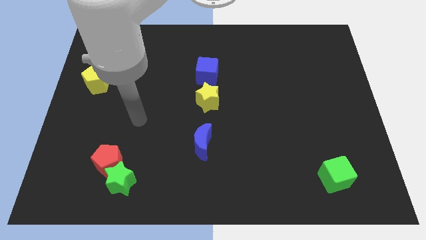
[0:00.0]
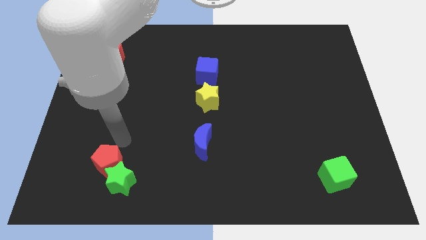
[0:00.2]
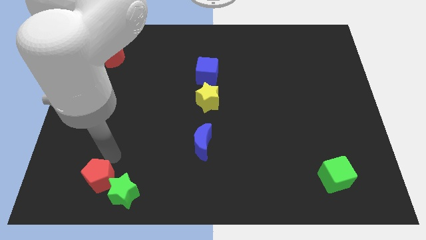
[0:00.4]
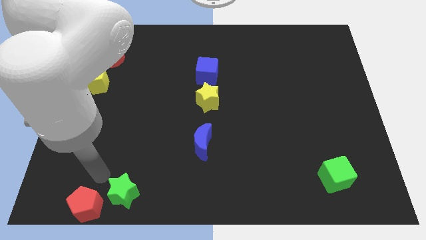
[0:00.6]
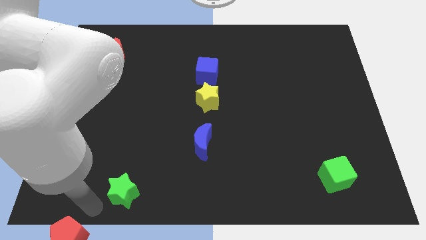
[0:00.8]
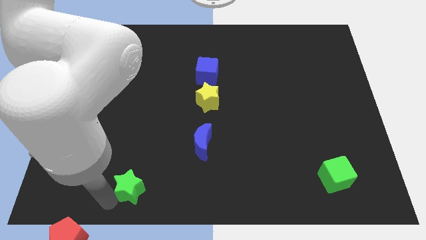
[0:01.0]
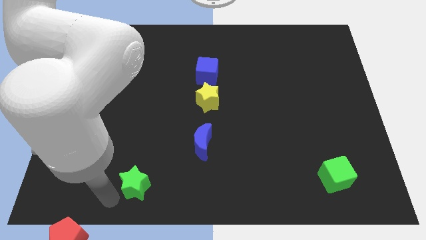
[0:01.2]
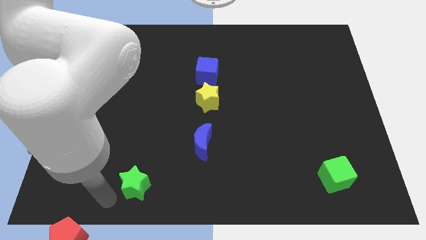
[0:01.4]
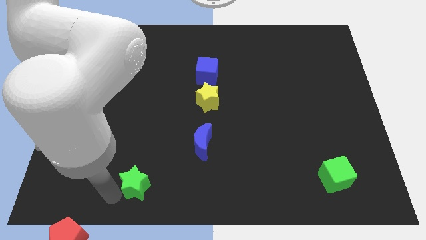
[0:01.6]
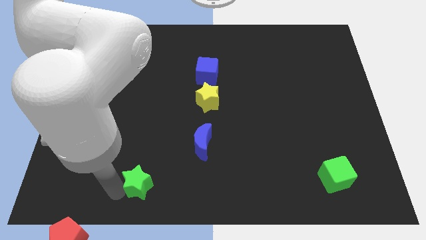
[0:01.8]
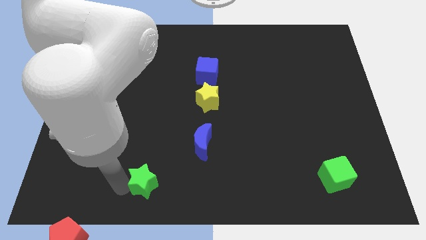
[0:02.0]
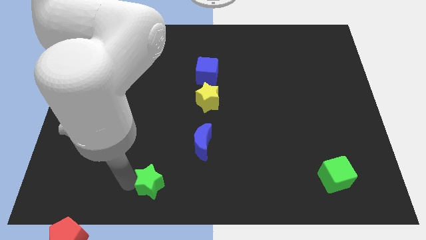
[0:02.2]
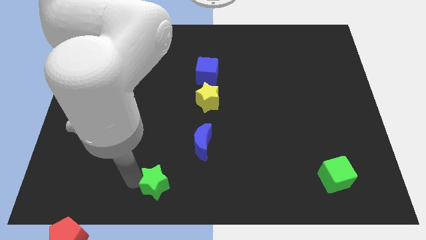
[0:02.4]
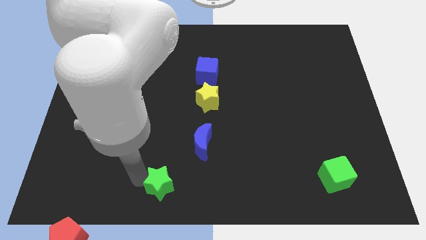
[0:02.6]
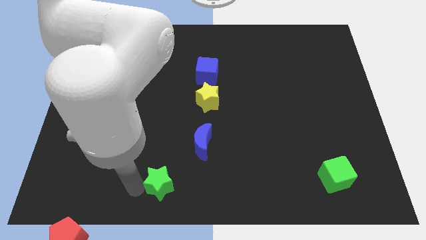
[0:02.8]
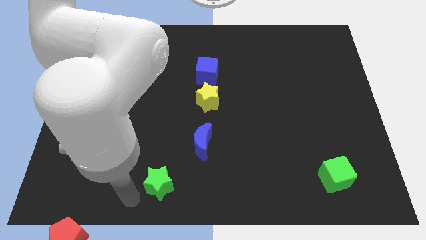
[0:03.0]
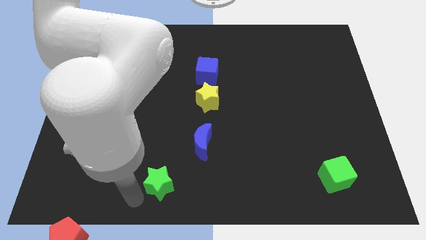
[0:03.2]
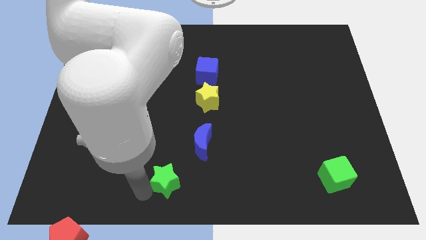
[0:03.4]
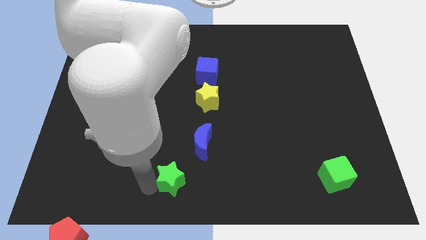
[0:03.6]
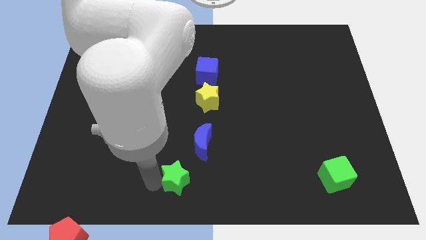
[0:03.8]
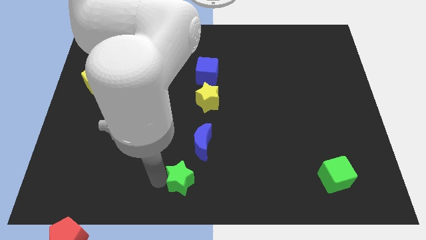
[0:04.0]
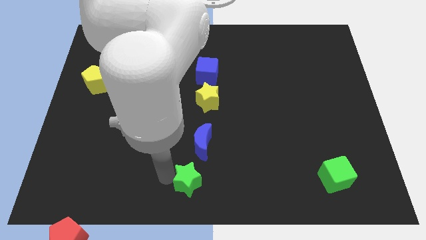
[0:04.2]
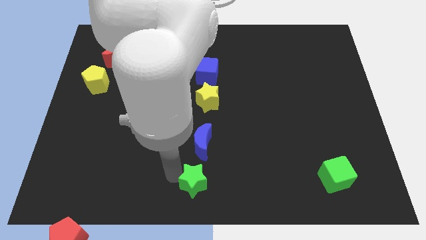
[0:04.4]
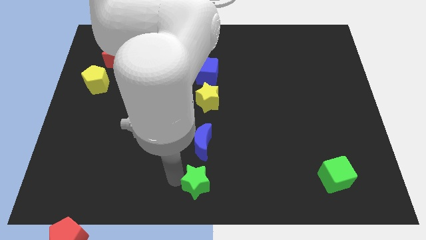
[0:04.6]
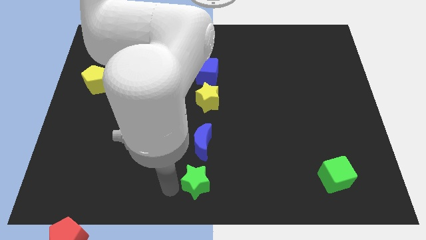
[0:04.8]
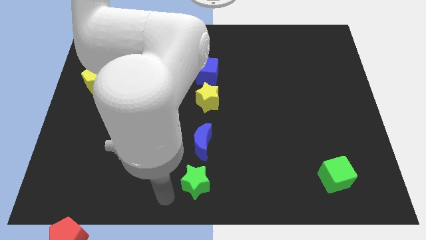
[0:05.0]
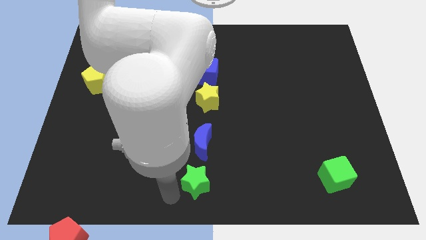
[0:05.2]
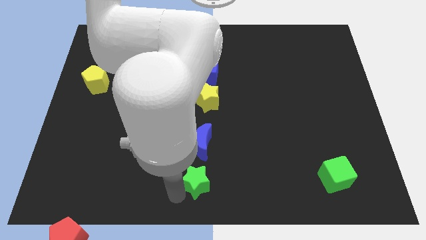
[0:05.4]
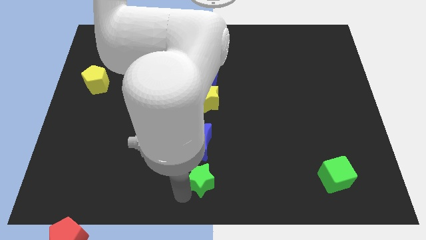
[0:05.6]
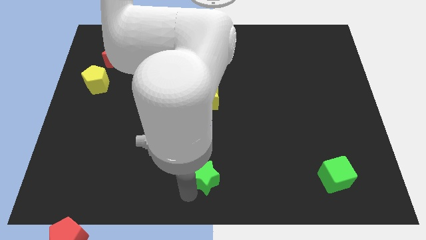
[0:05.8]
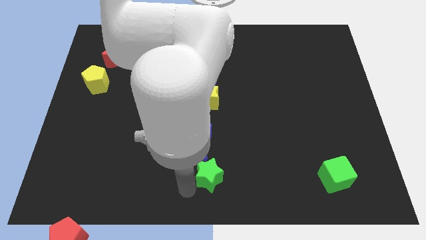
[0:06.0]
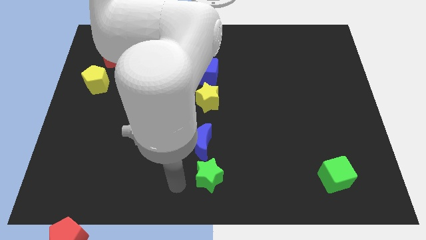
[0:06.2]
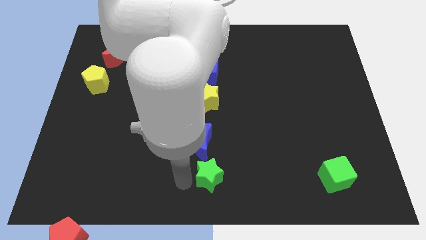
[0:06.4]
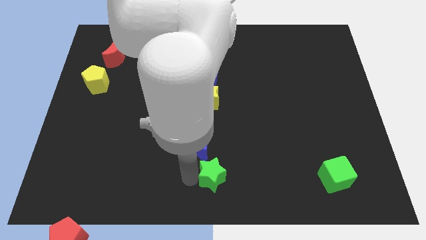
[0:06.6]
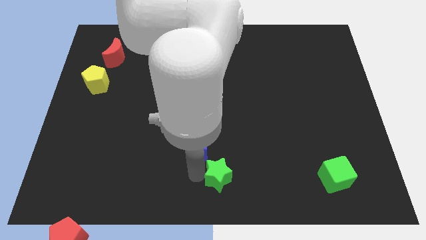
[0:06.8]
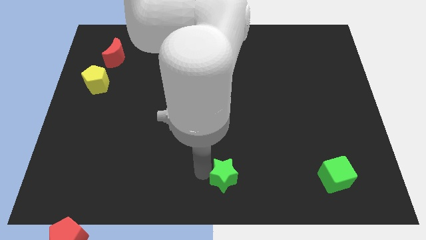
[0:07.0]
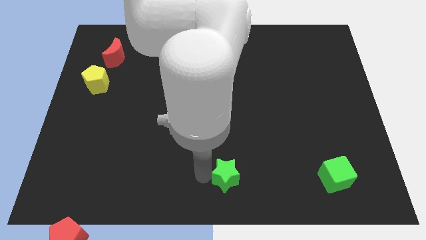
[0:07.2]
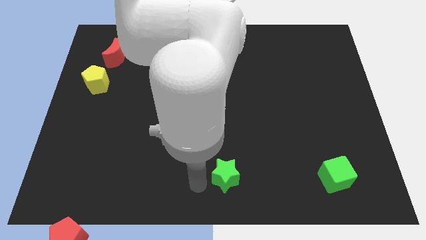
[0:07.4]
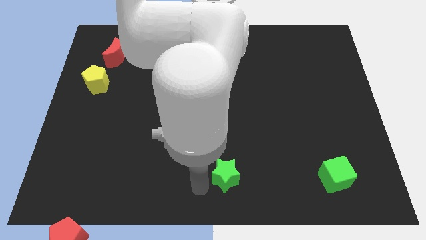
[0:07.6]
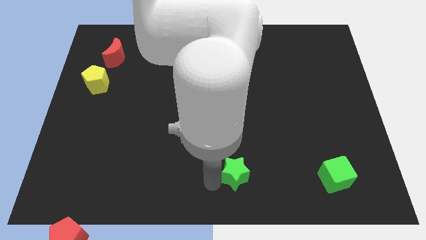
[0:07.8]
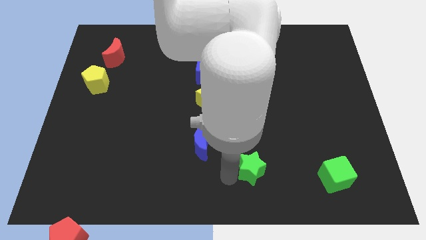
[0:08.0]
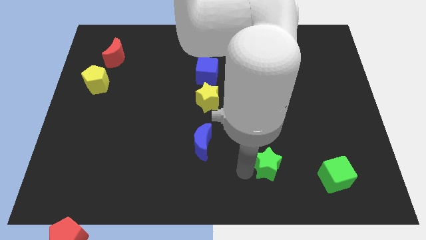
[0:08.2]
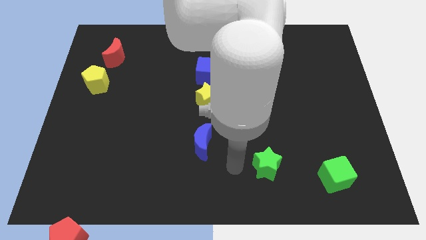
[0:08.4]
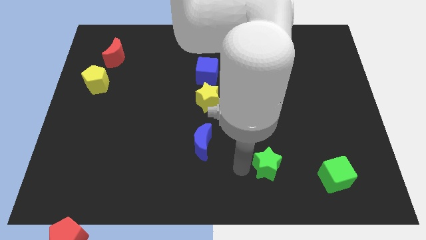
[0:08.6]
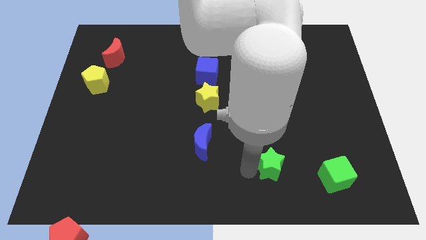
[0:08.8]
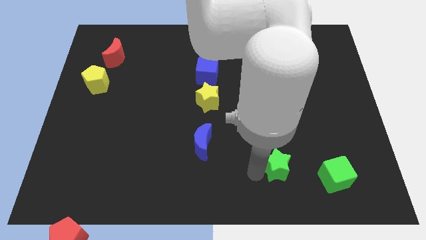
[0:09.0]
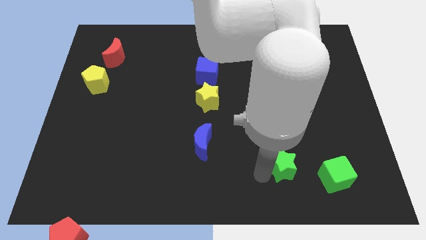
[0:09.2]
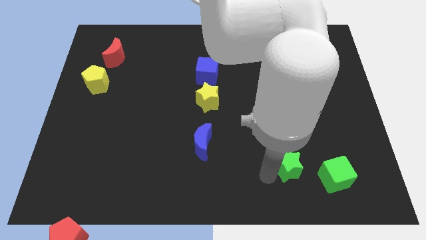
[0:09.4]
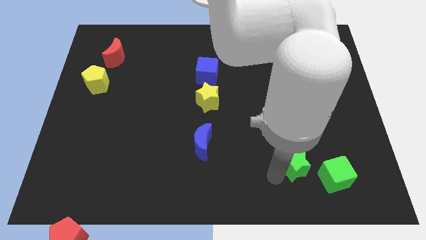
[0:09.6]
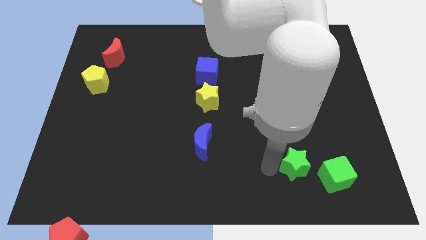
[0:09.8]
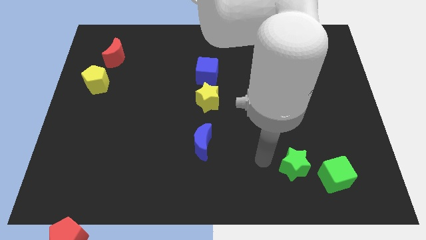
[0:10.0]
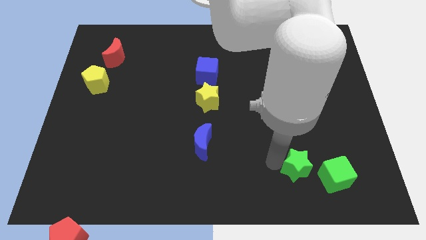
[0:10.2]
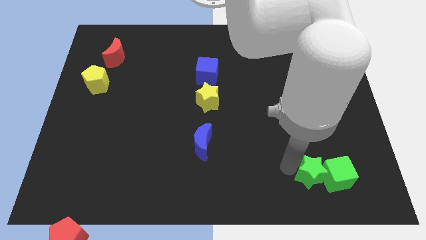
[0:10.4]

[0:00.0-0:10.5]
put the green star next to the green cube

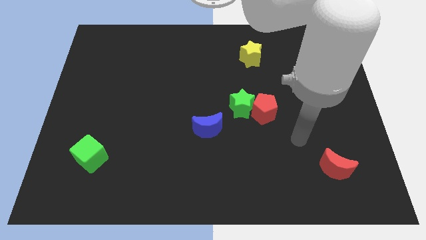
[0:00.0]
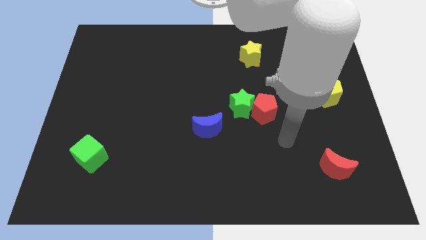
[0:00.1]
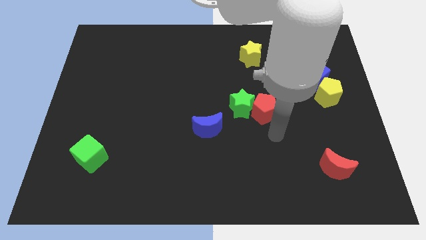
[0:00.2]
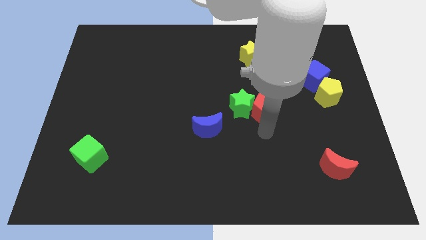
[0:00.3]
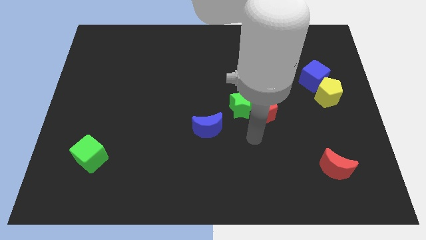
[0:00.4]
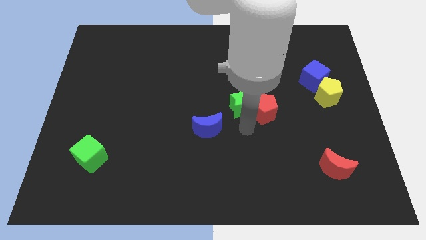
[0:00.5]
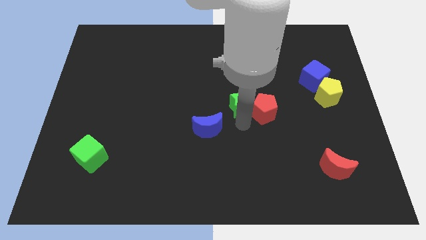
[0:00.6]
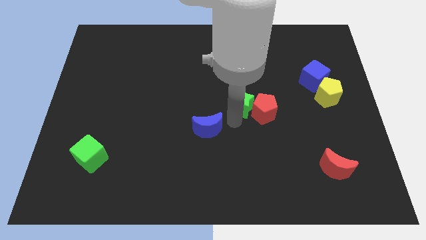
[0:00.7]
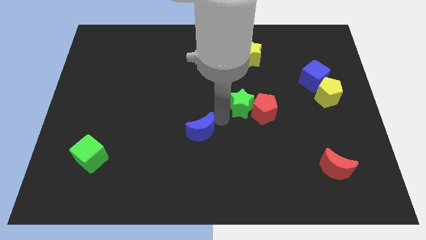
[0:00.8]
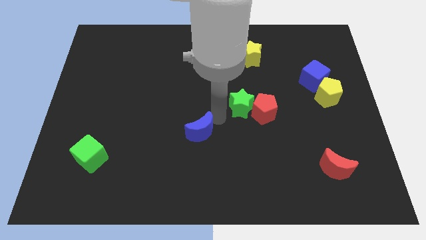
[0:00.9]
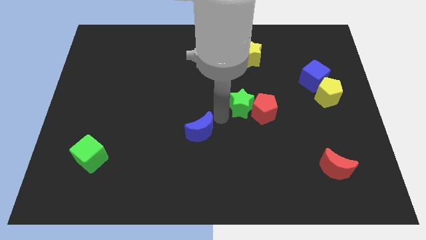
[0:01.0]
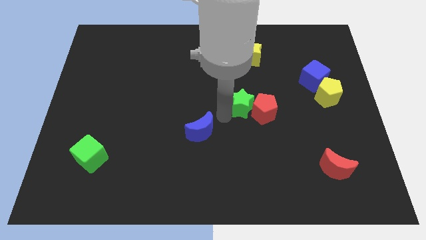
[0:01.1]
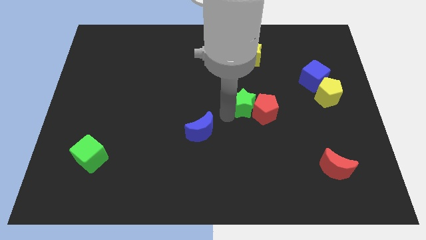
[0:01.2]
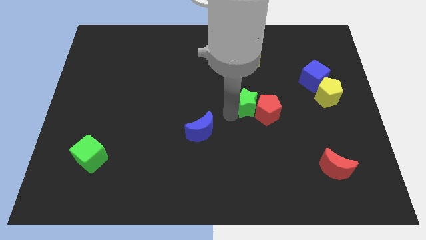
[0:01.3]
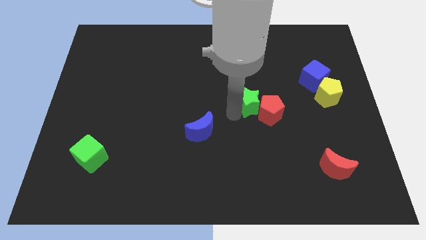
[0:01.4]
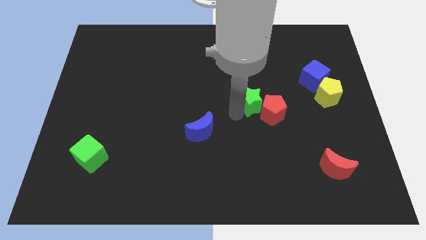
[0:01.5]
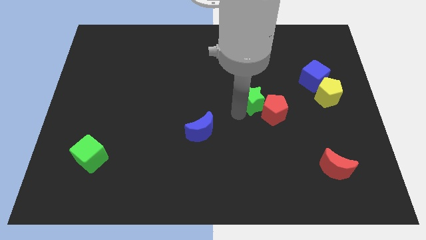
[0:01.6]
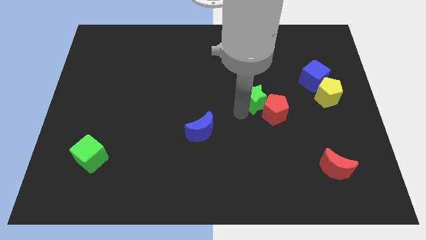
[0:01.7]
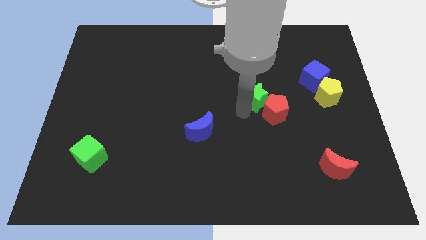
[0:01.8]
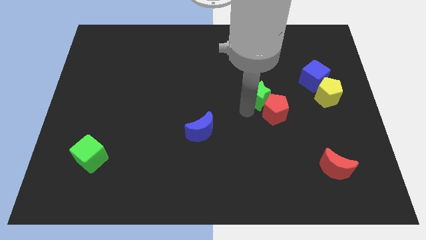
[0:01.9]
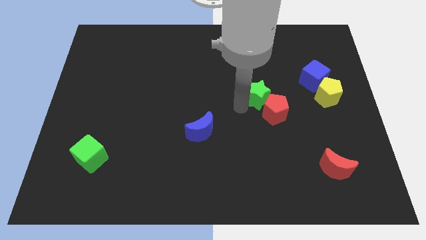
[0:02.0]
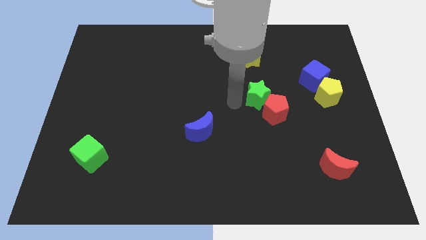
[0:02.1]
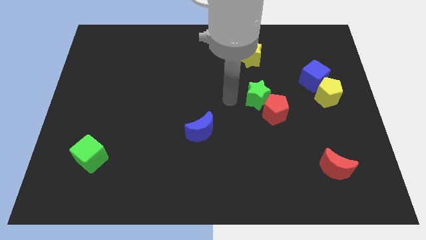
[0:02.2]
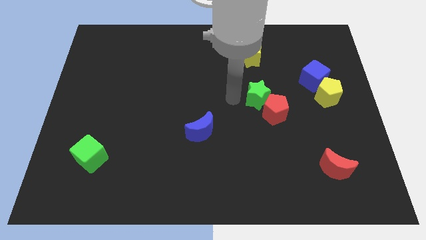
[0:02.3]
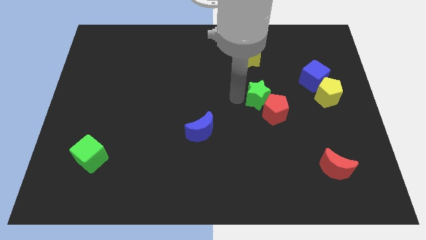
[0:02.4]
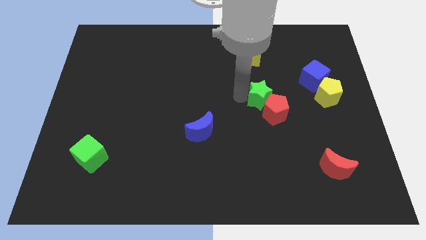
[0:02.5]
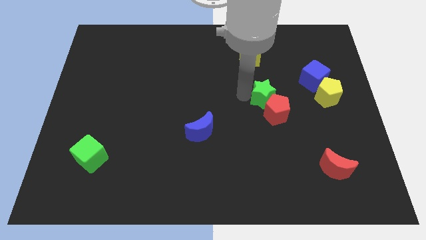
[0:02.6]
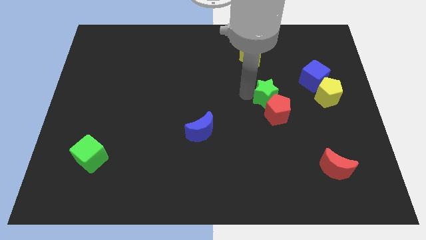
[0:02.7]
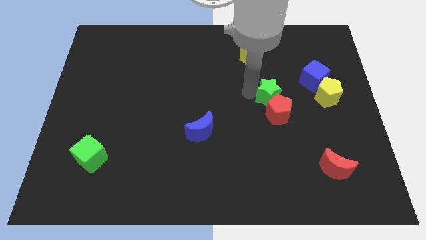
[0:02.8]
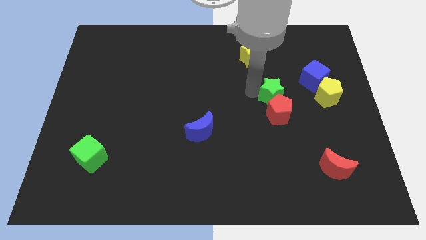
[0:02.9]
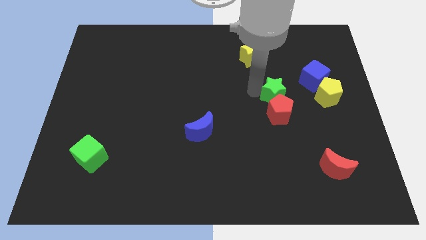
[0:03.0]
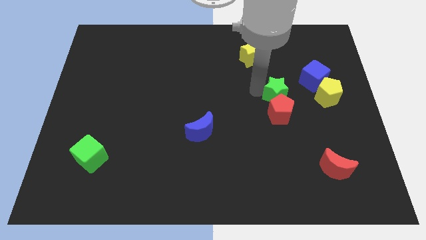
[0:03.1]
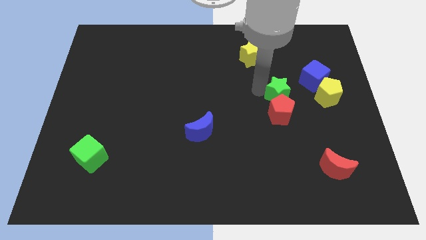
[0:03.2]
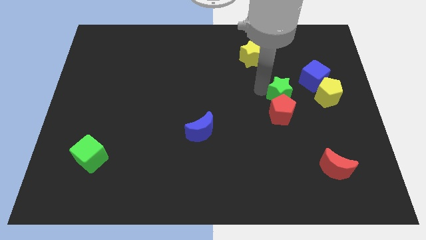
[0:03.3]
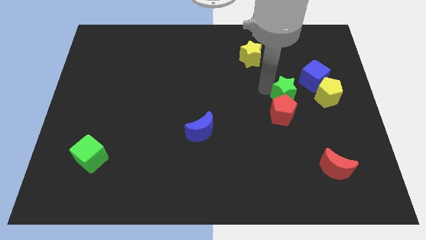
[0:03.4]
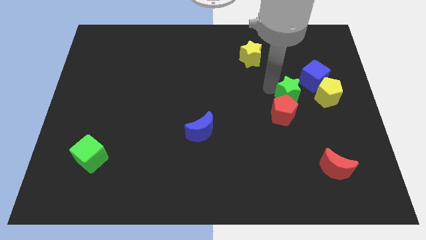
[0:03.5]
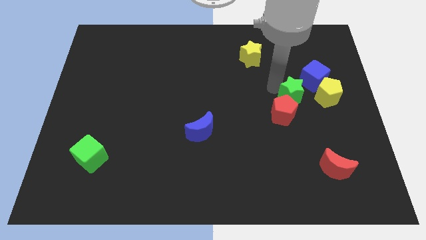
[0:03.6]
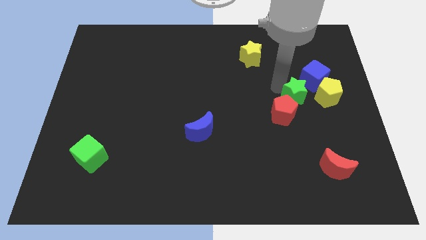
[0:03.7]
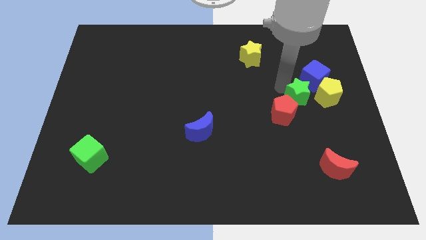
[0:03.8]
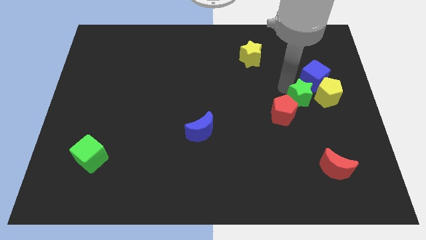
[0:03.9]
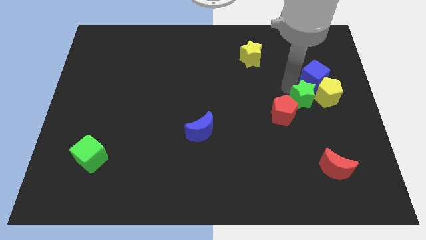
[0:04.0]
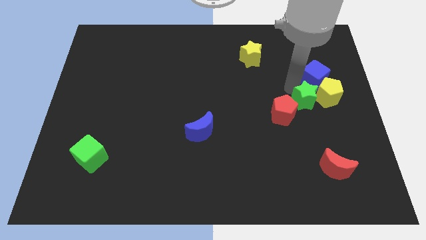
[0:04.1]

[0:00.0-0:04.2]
move the green star to the yellow pentagon
